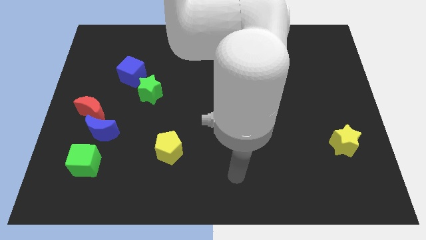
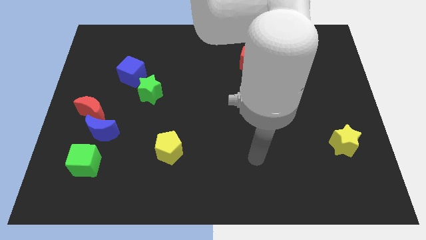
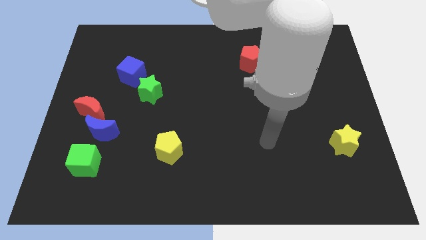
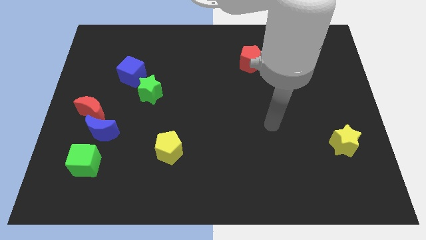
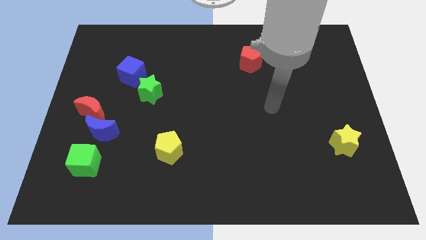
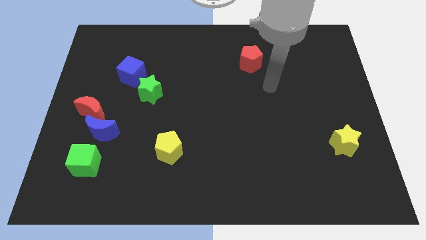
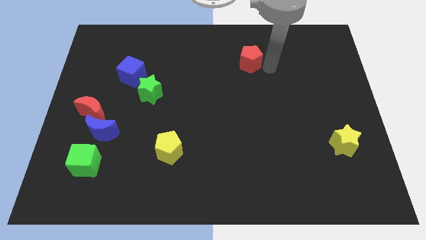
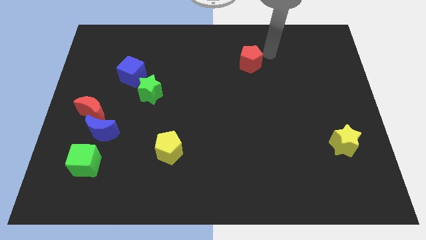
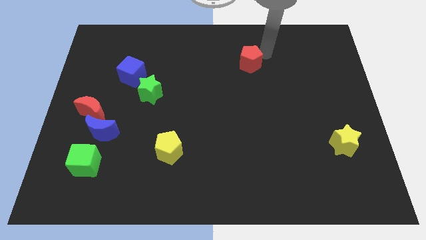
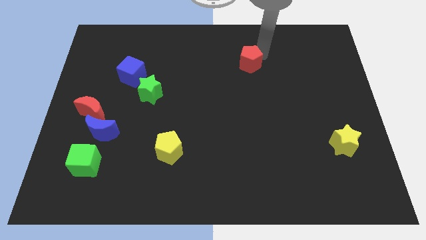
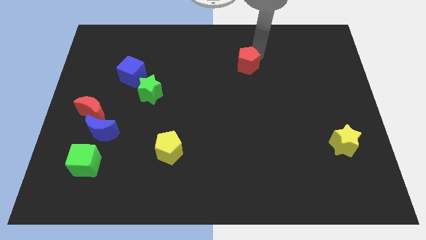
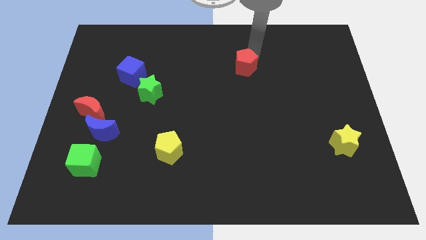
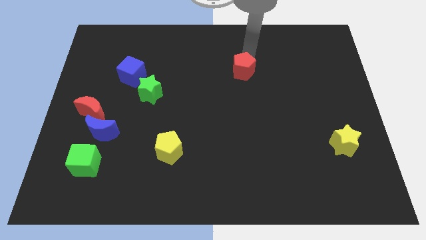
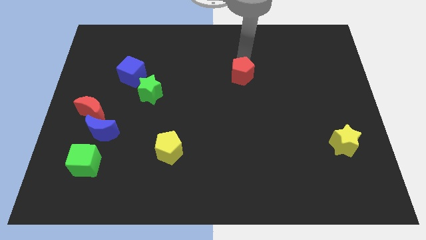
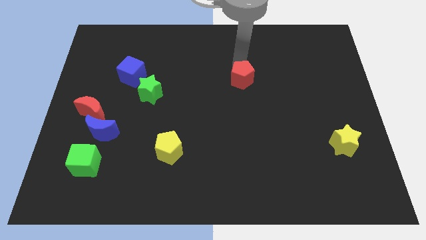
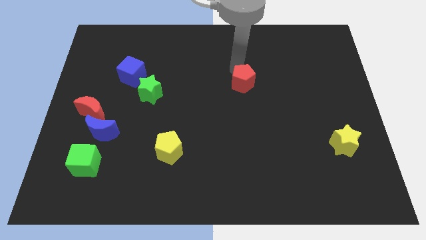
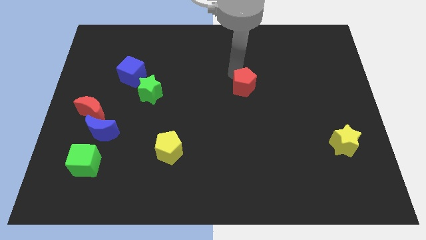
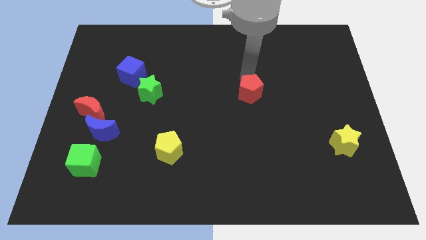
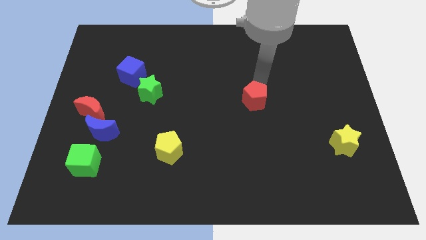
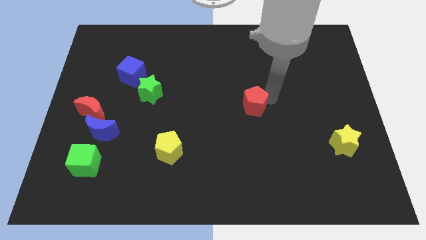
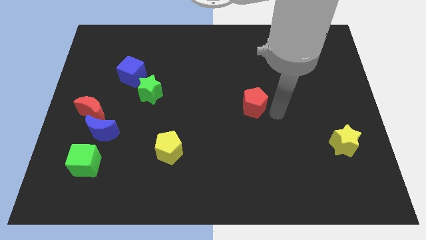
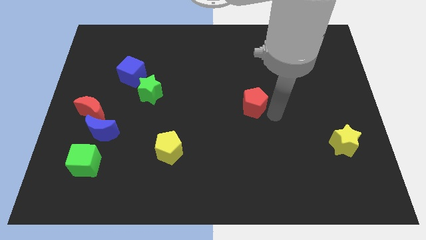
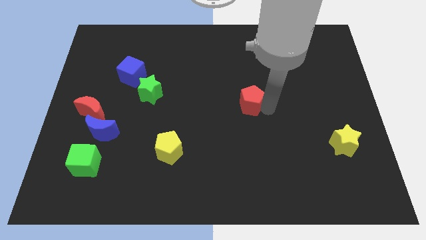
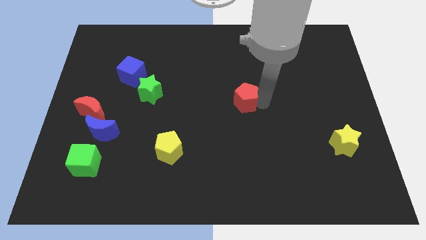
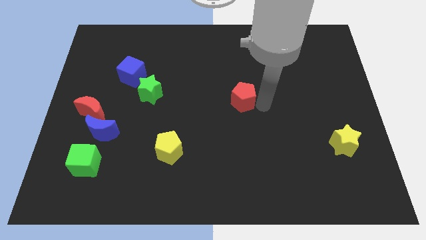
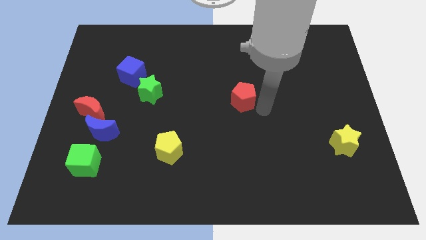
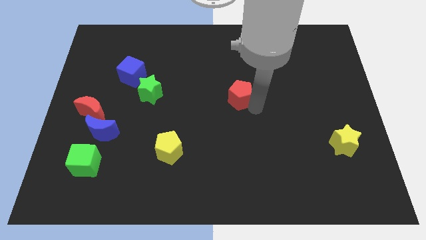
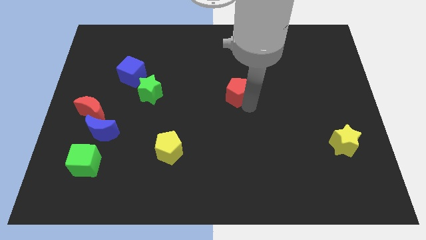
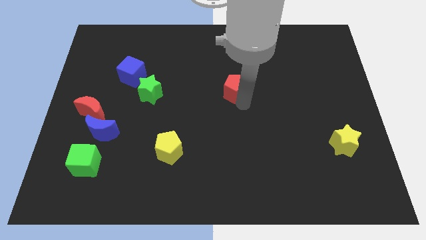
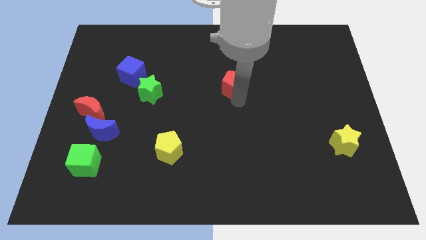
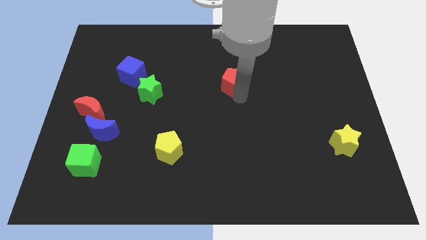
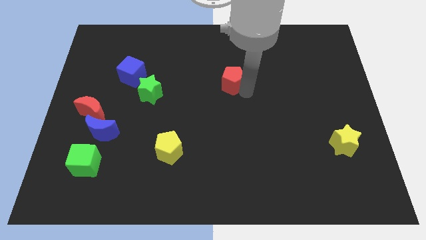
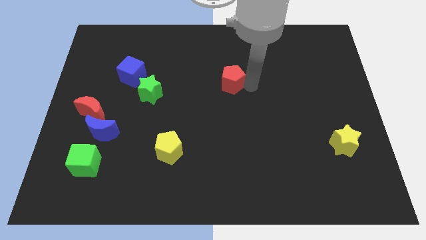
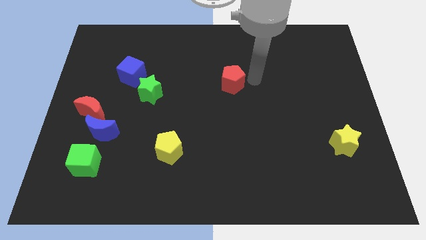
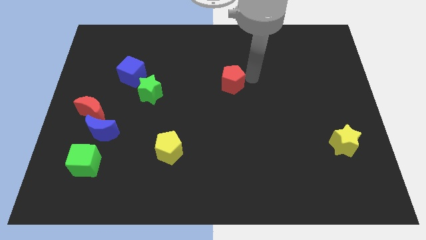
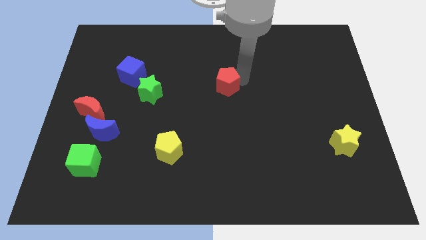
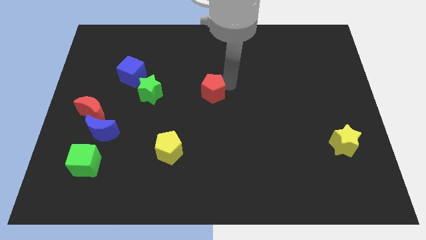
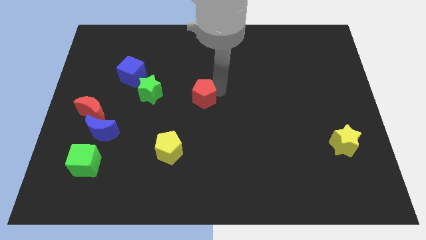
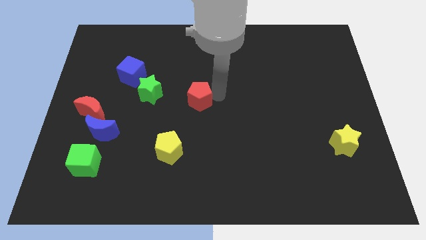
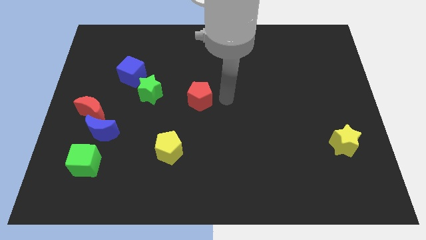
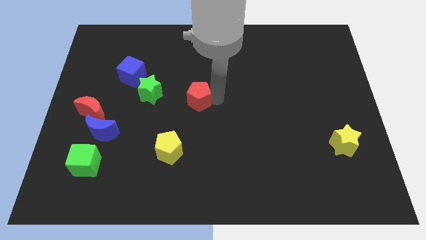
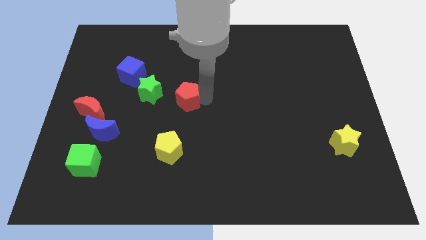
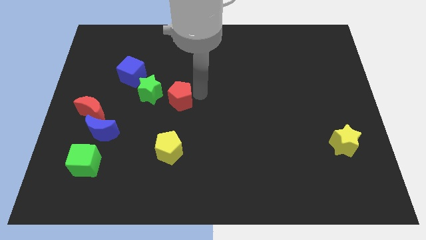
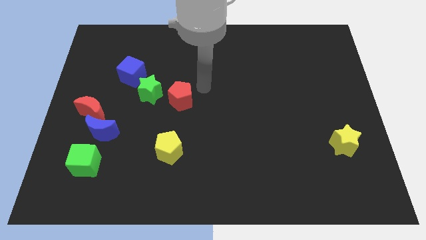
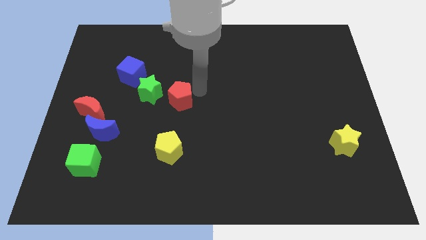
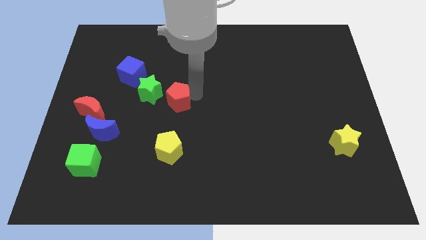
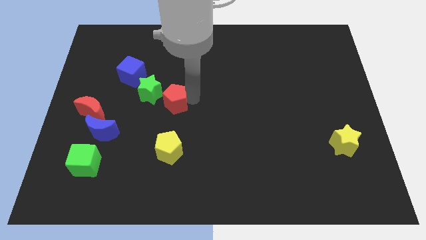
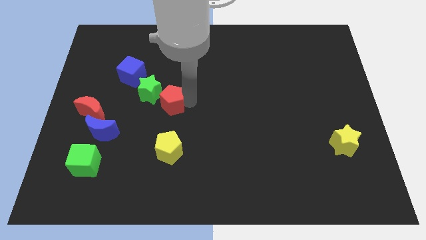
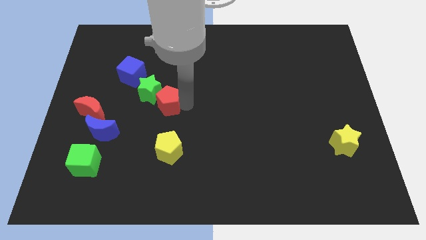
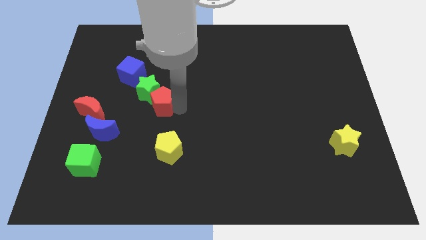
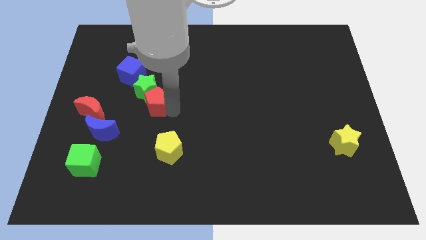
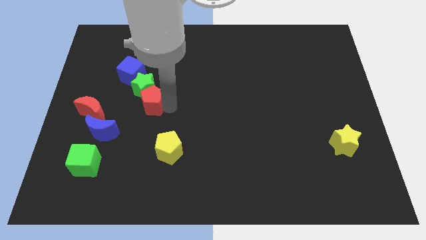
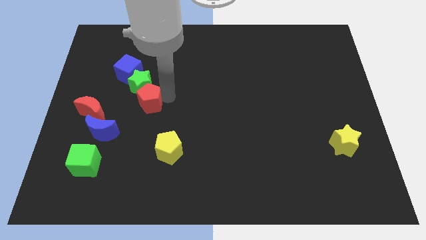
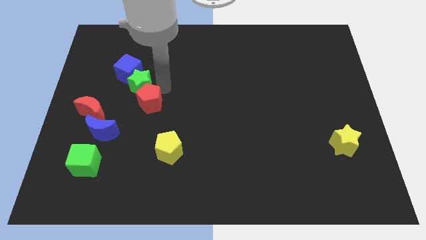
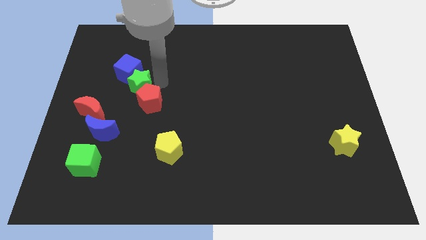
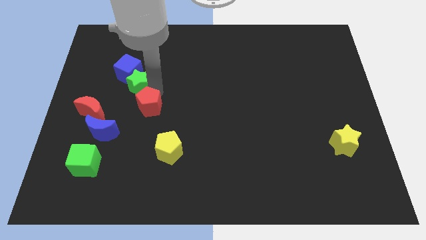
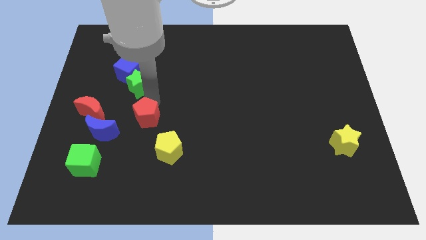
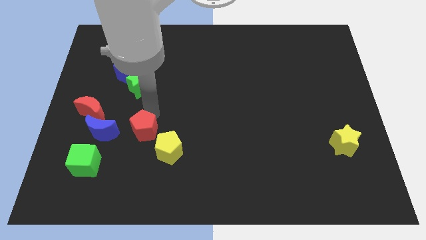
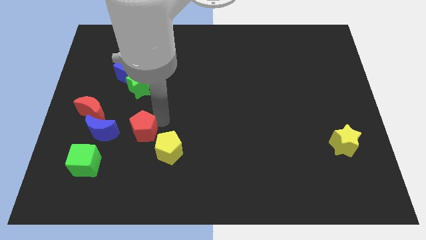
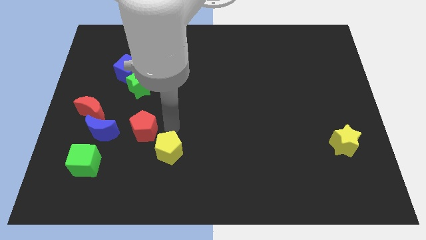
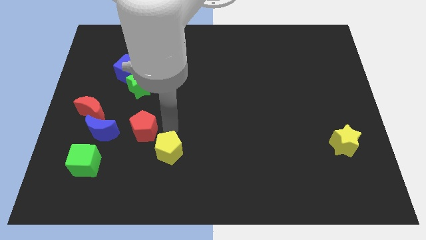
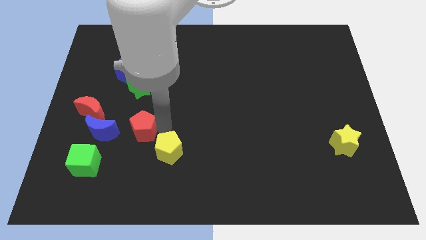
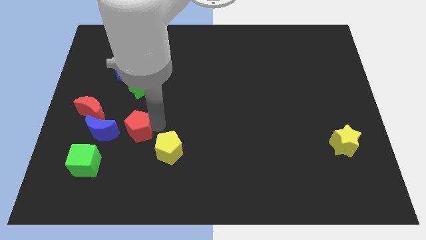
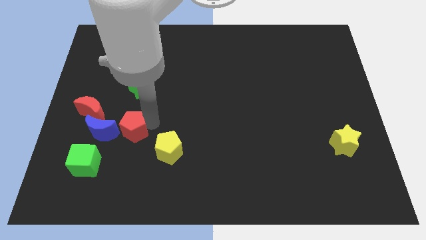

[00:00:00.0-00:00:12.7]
slide the red pentagon diagonally down and to the right of the red moon

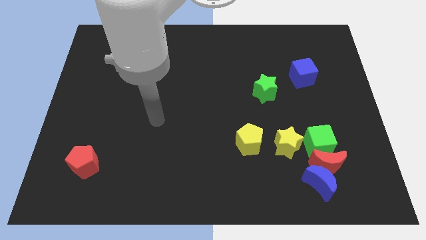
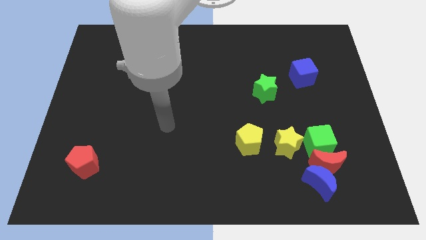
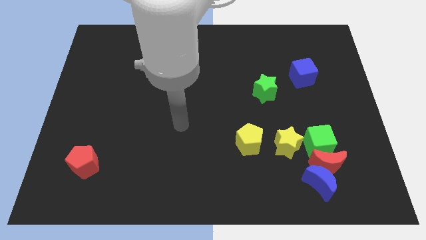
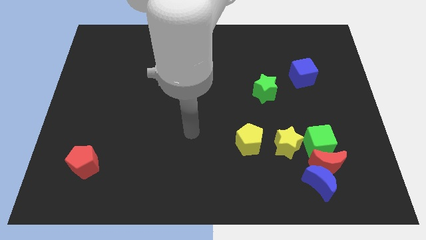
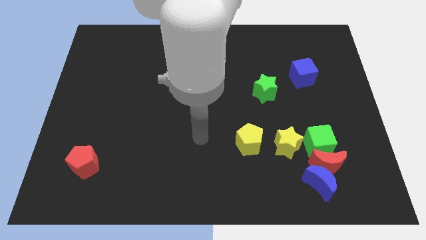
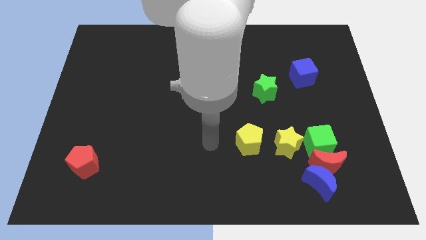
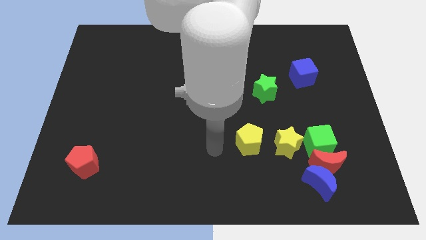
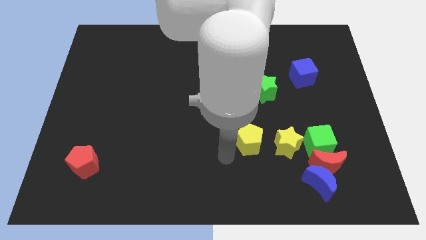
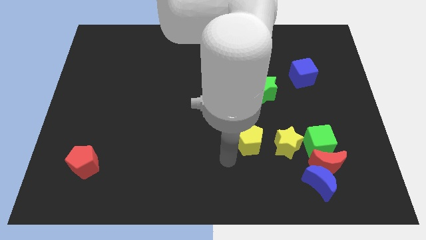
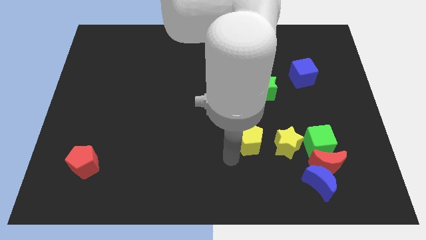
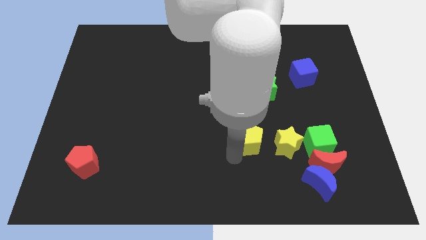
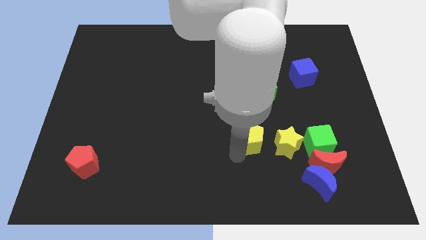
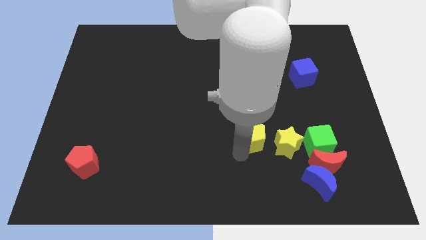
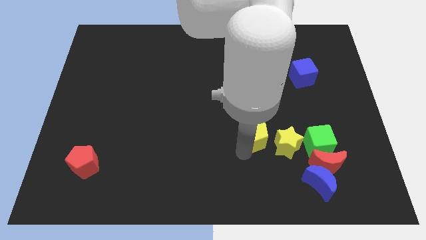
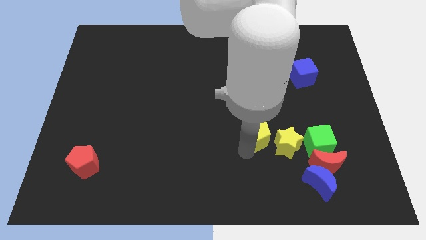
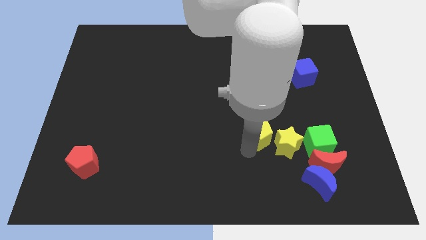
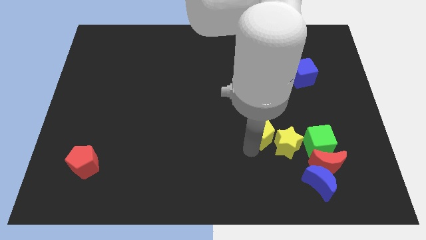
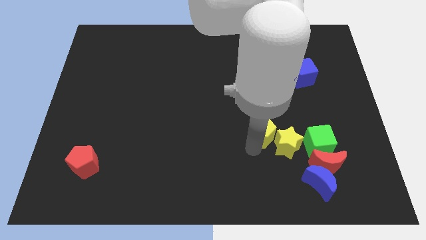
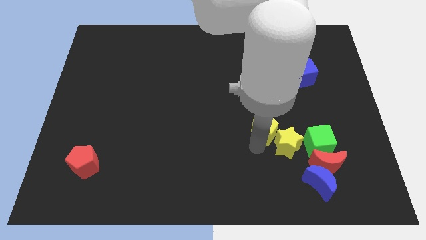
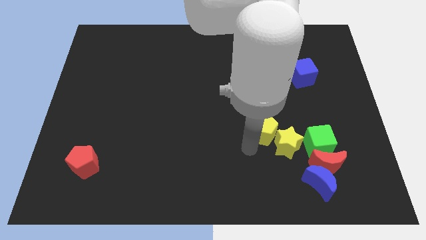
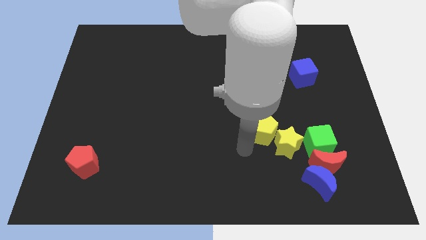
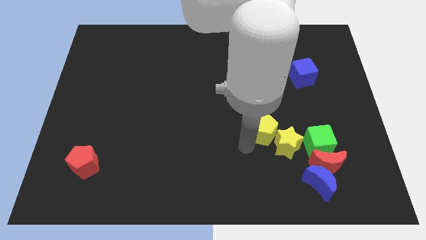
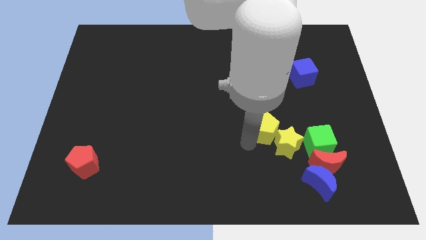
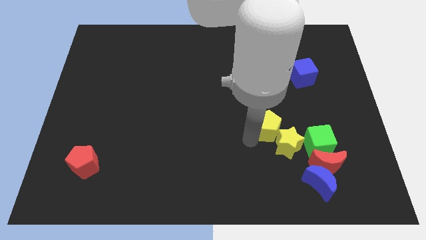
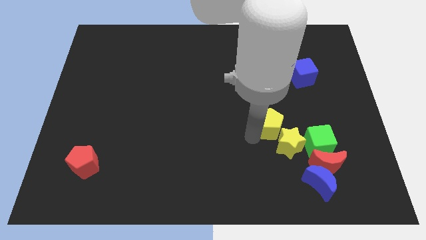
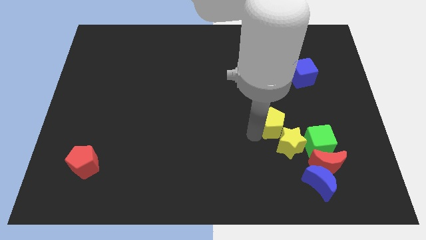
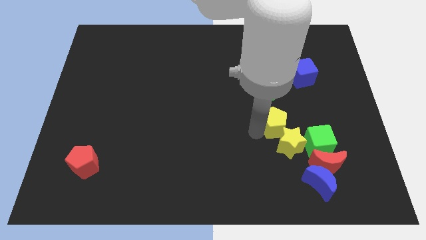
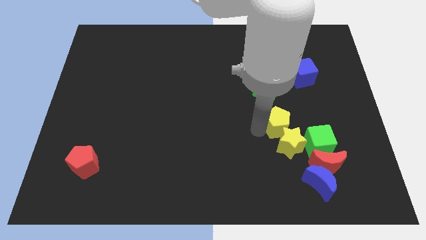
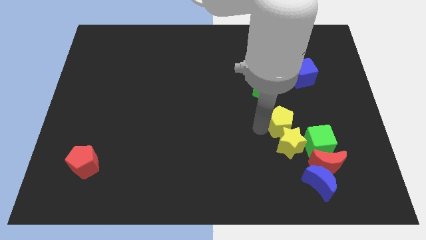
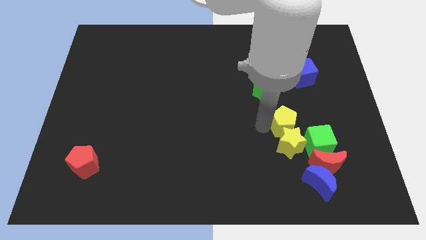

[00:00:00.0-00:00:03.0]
put the yellow pentagon to the bottom right of the green star
